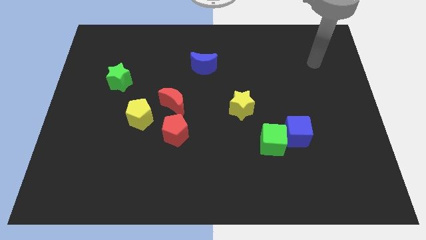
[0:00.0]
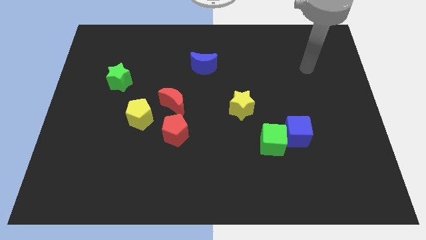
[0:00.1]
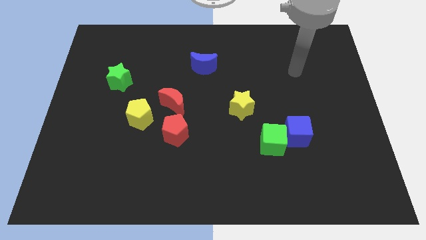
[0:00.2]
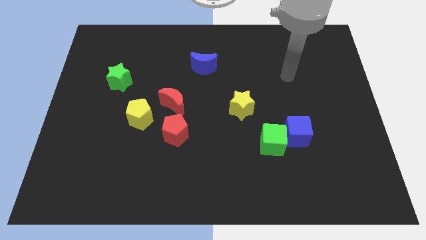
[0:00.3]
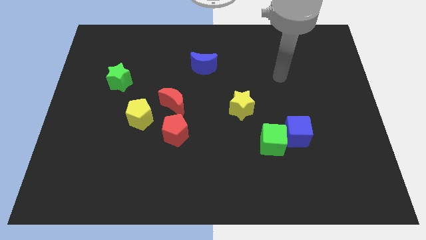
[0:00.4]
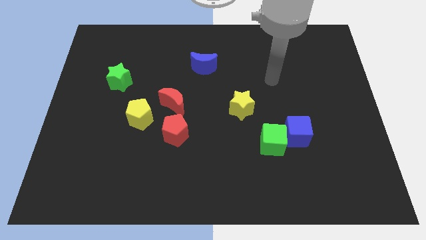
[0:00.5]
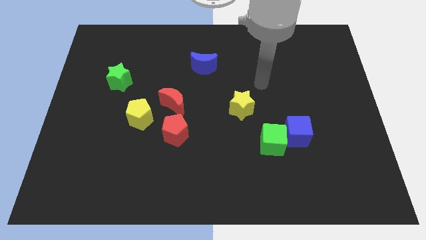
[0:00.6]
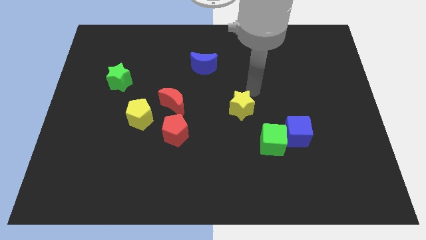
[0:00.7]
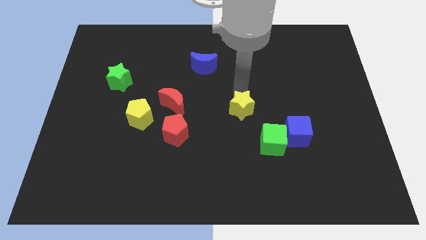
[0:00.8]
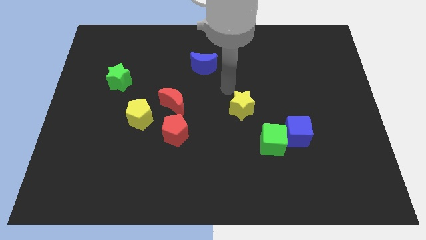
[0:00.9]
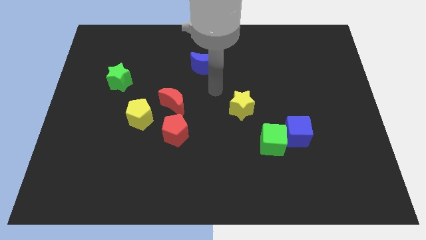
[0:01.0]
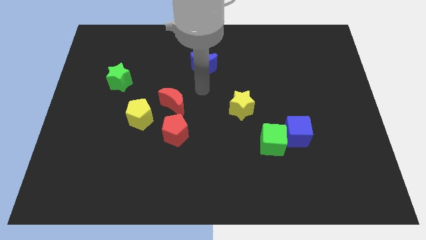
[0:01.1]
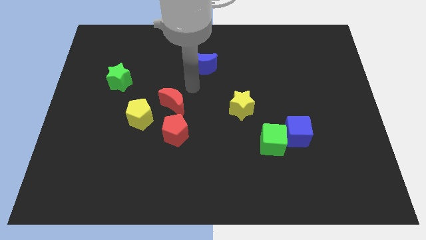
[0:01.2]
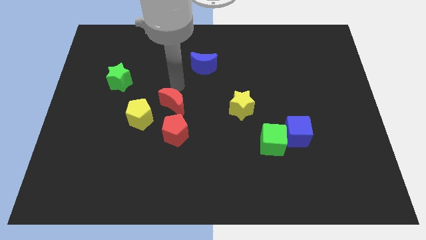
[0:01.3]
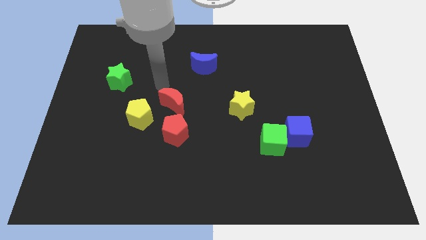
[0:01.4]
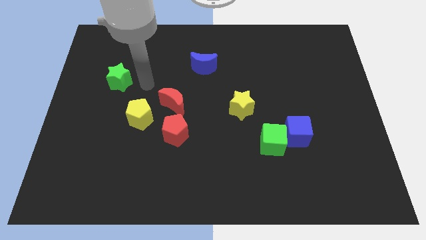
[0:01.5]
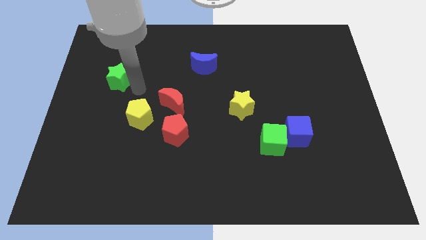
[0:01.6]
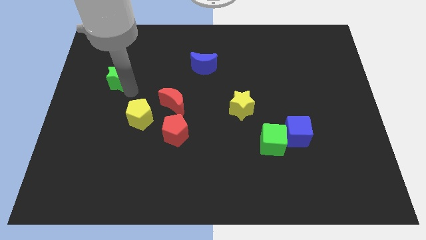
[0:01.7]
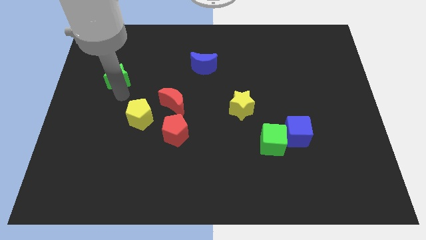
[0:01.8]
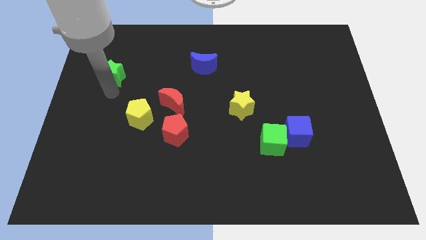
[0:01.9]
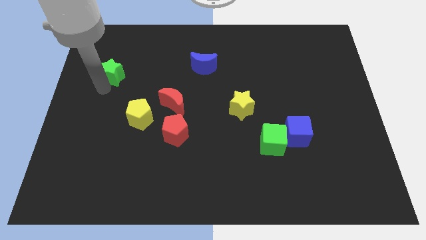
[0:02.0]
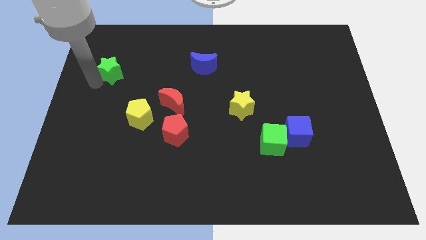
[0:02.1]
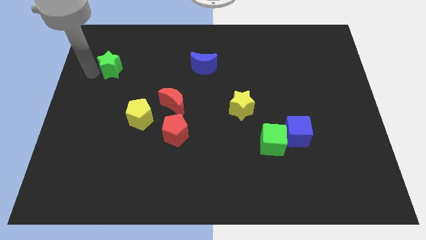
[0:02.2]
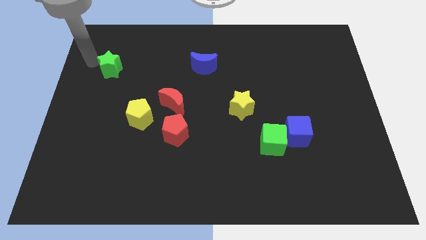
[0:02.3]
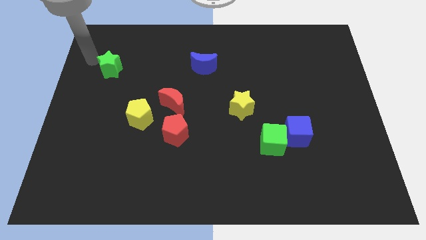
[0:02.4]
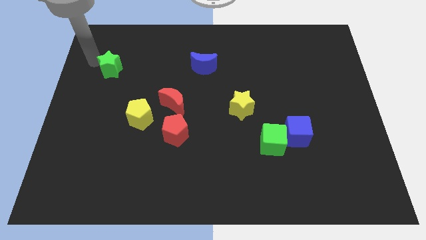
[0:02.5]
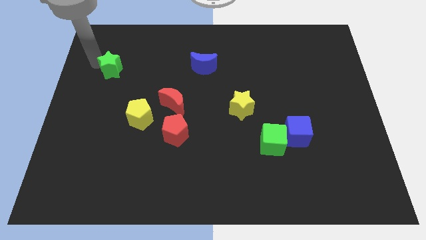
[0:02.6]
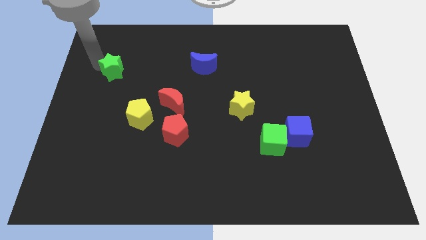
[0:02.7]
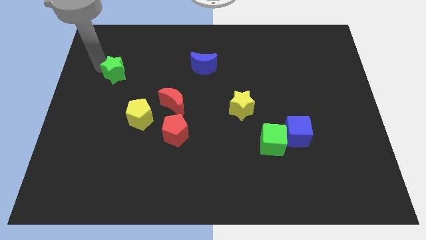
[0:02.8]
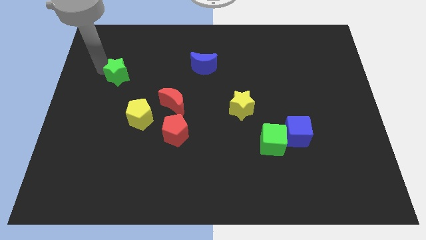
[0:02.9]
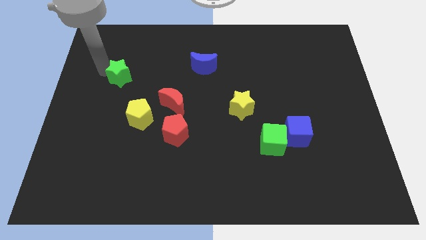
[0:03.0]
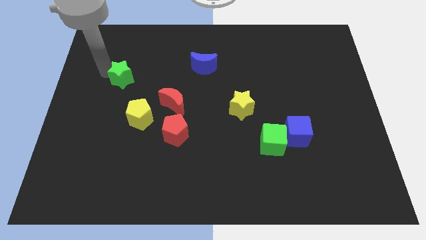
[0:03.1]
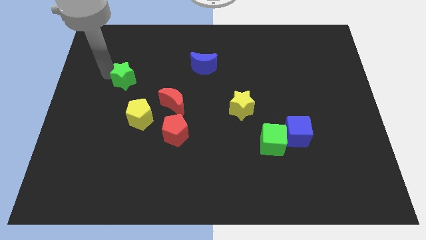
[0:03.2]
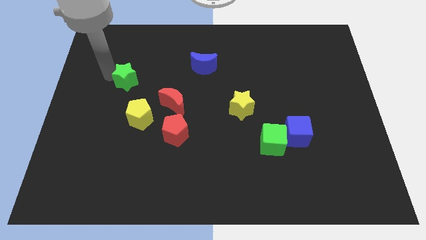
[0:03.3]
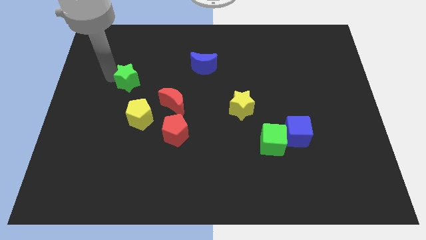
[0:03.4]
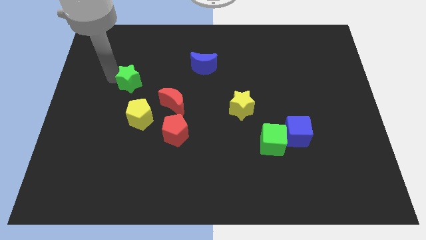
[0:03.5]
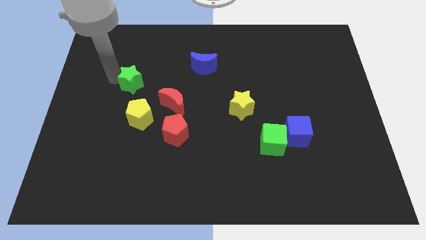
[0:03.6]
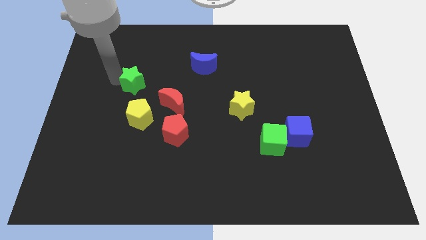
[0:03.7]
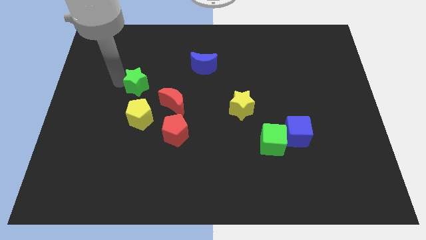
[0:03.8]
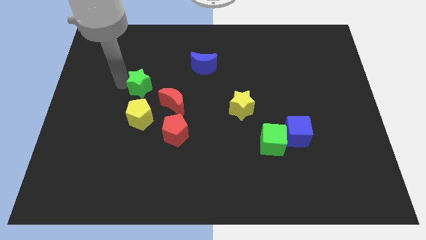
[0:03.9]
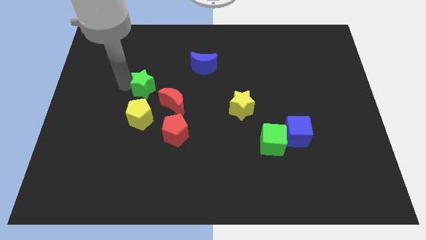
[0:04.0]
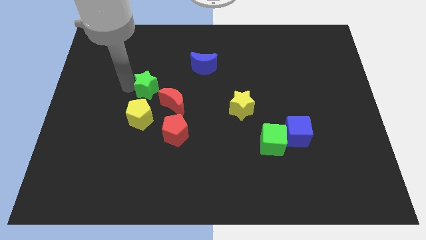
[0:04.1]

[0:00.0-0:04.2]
slide the green star a bit to the right

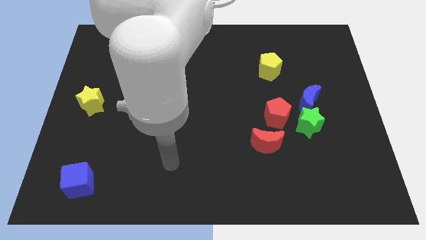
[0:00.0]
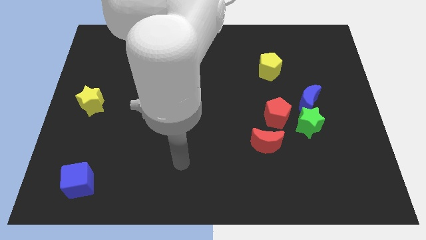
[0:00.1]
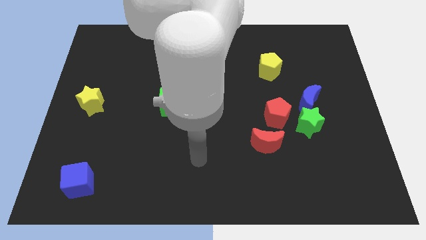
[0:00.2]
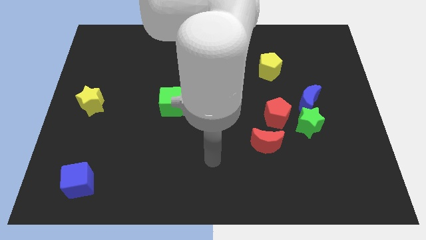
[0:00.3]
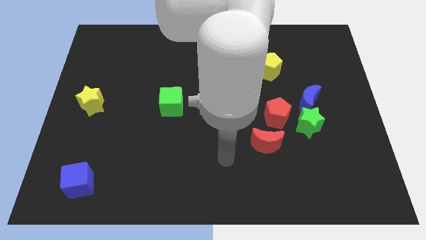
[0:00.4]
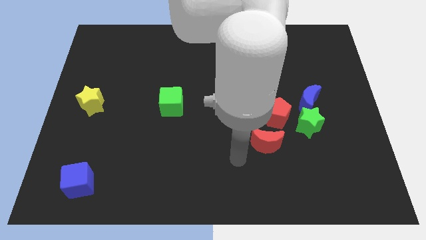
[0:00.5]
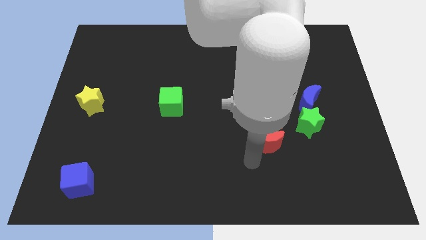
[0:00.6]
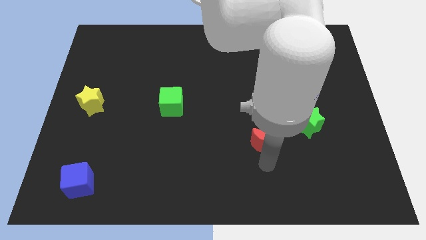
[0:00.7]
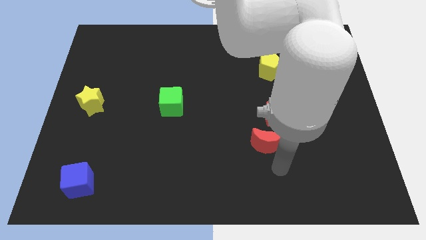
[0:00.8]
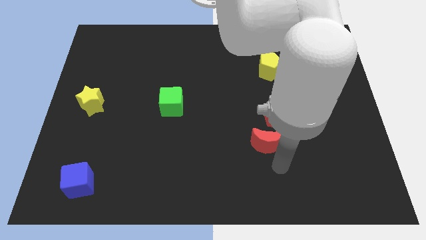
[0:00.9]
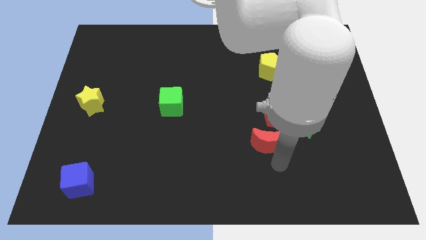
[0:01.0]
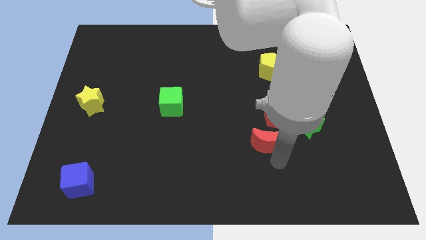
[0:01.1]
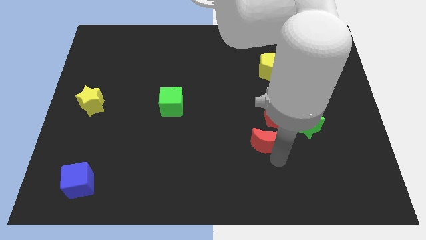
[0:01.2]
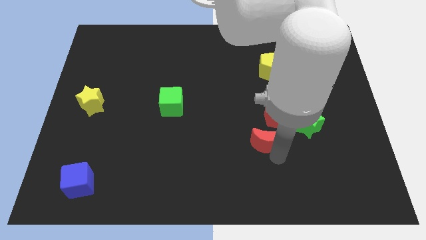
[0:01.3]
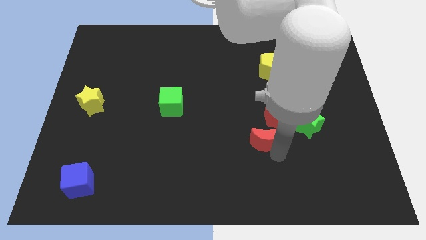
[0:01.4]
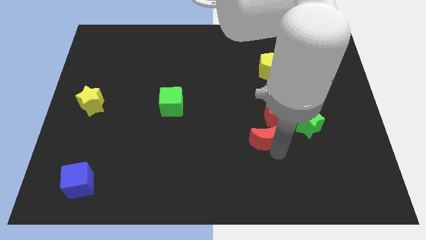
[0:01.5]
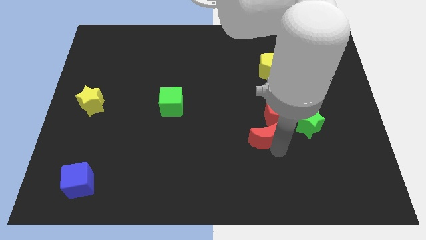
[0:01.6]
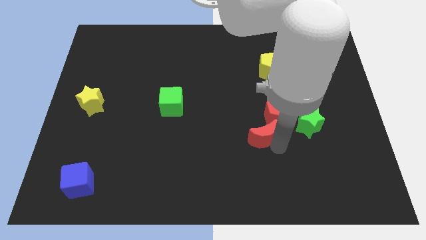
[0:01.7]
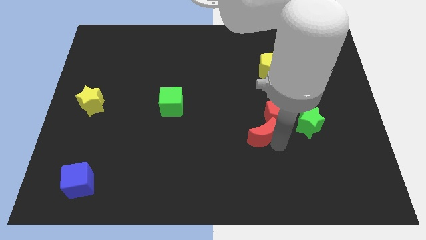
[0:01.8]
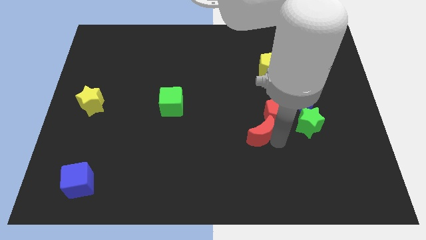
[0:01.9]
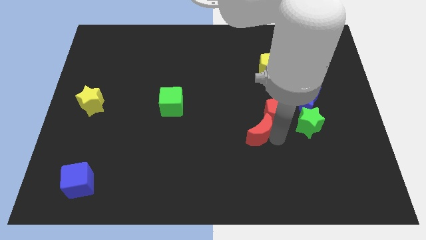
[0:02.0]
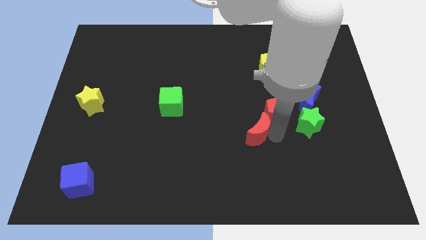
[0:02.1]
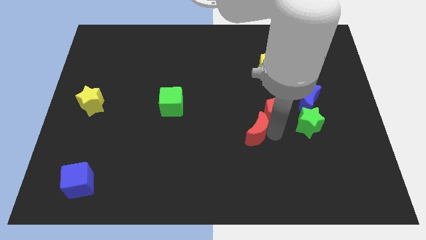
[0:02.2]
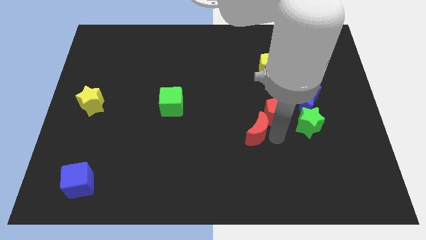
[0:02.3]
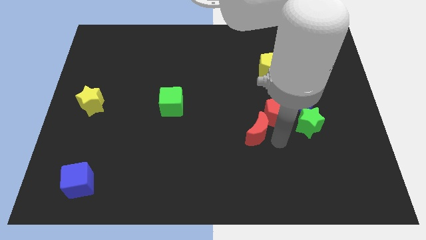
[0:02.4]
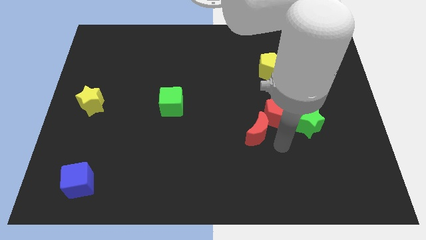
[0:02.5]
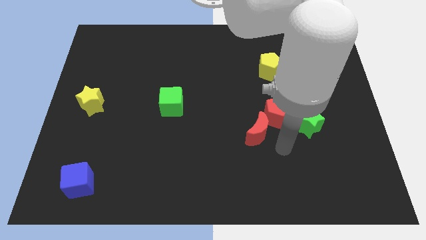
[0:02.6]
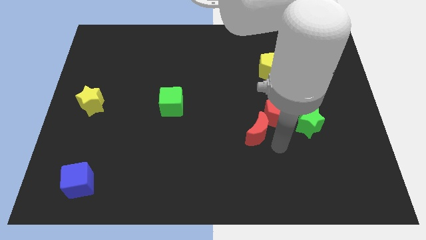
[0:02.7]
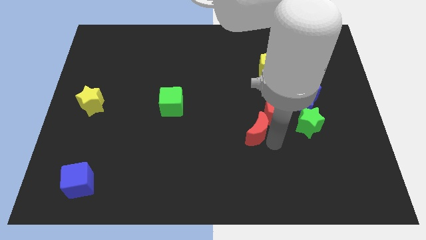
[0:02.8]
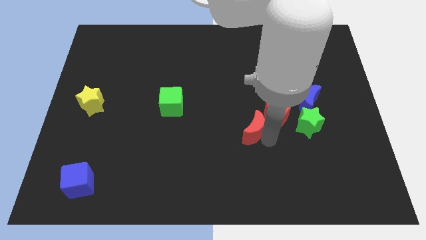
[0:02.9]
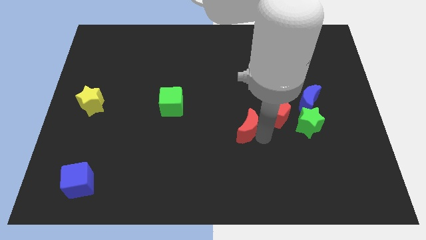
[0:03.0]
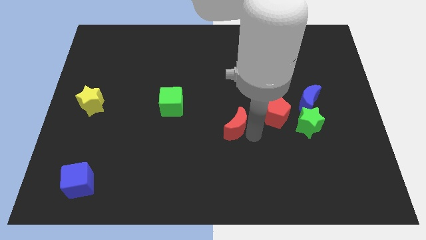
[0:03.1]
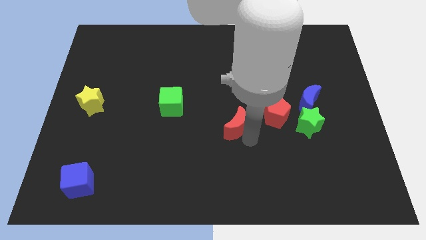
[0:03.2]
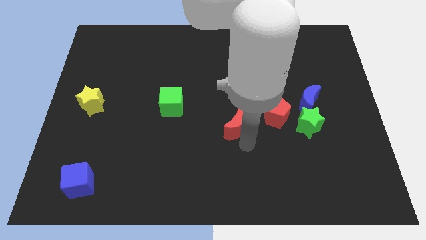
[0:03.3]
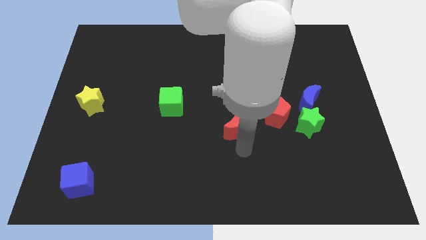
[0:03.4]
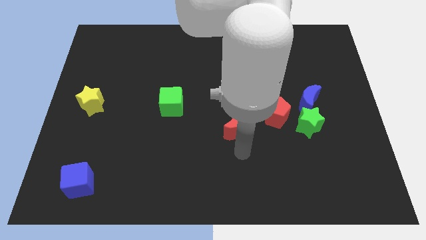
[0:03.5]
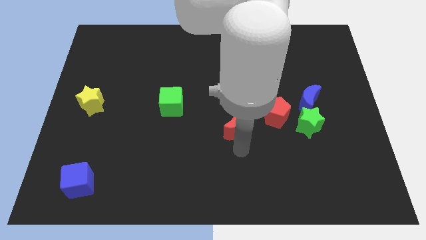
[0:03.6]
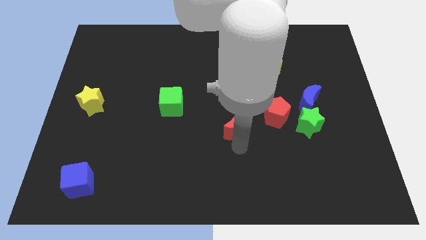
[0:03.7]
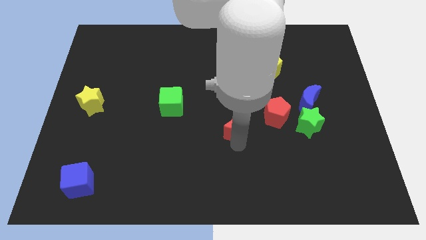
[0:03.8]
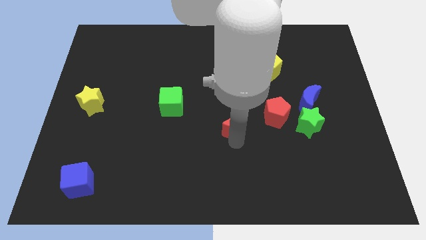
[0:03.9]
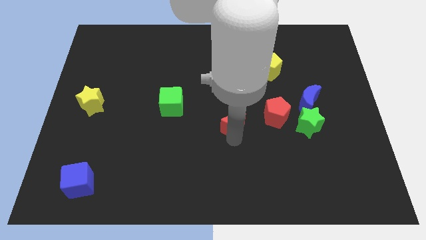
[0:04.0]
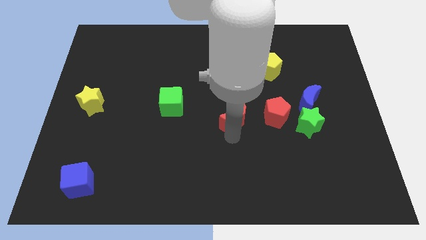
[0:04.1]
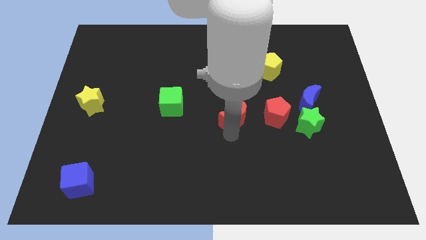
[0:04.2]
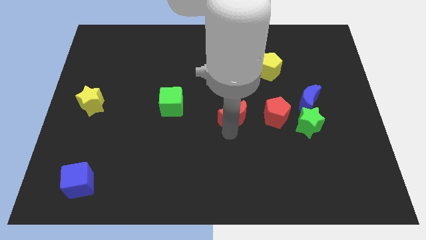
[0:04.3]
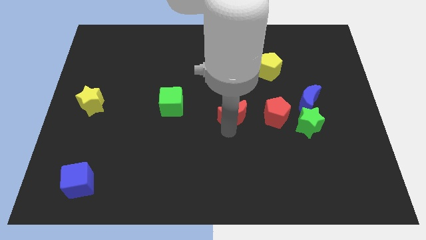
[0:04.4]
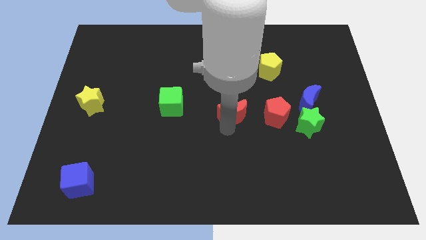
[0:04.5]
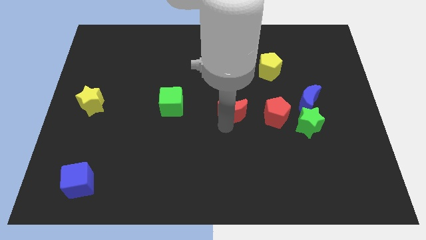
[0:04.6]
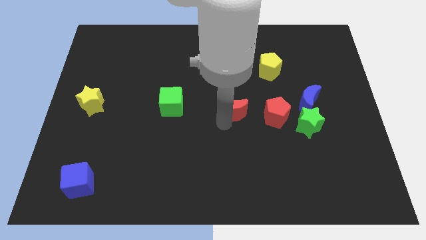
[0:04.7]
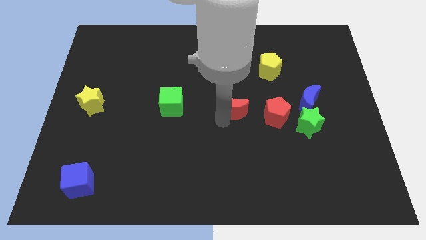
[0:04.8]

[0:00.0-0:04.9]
slide the red moon a little up
